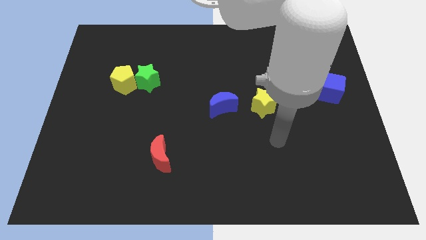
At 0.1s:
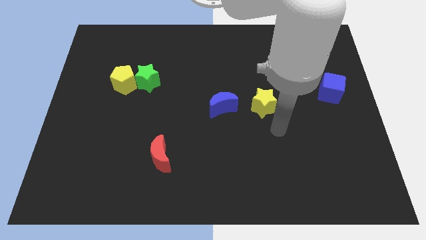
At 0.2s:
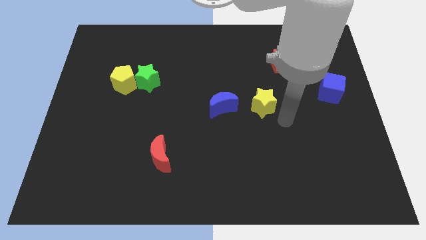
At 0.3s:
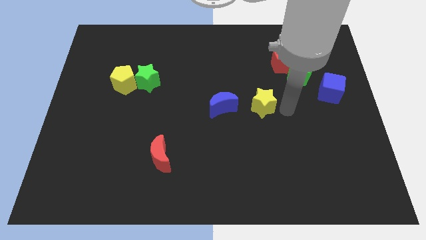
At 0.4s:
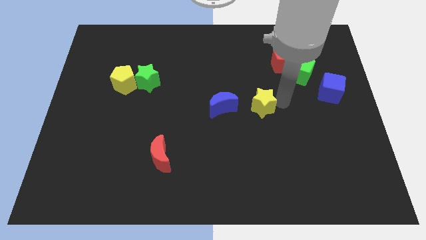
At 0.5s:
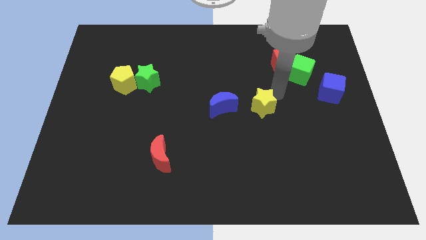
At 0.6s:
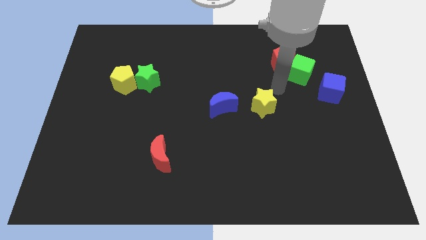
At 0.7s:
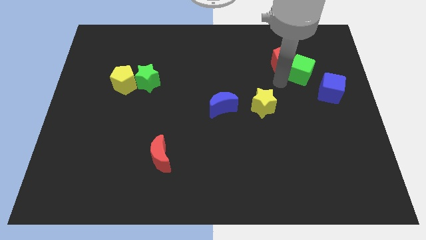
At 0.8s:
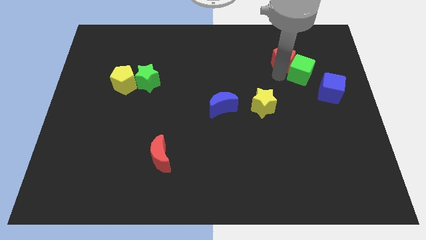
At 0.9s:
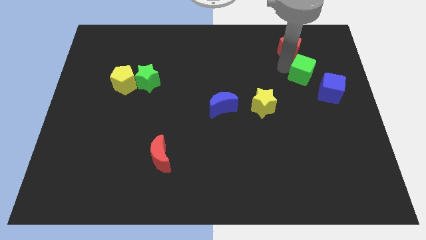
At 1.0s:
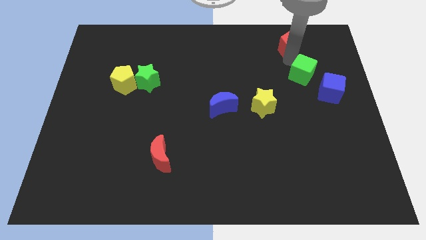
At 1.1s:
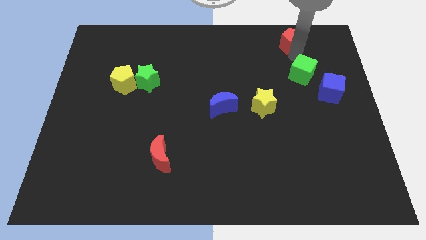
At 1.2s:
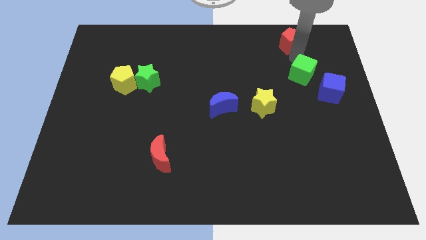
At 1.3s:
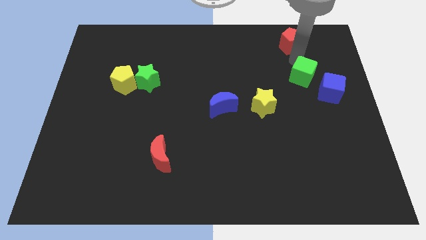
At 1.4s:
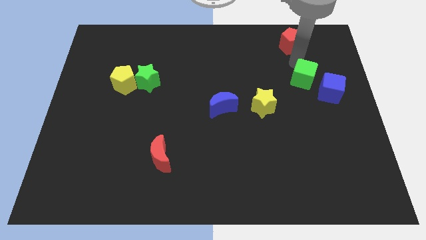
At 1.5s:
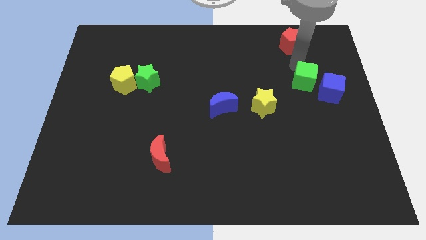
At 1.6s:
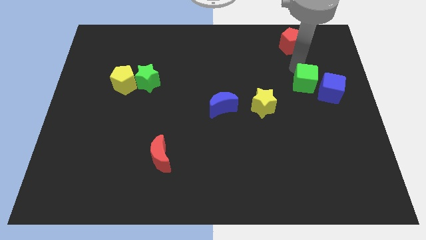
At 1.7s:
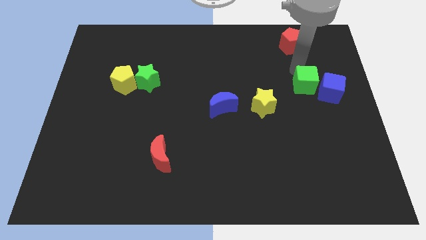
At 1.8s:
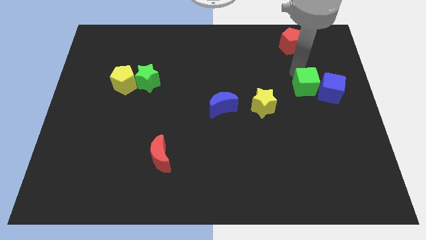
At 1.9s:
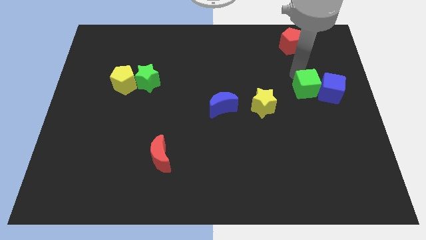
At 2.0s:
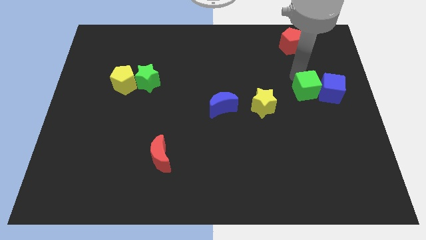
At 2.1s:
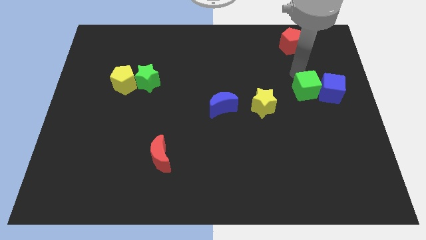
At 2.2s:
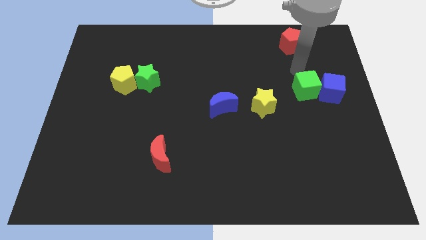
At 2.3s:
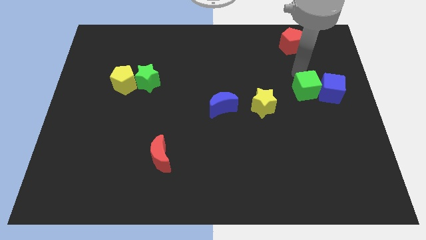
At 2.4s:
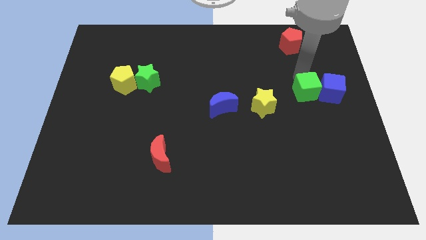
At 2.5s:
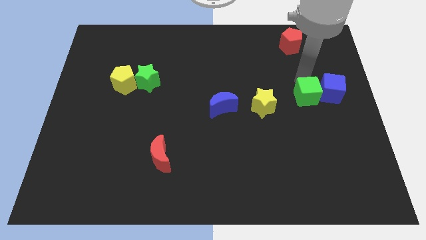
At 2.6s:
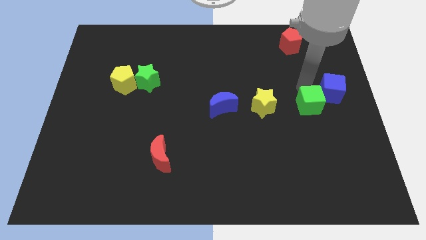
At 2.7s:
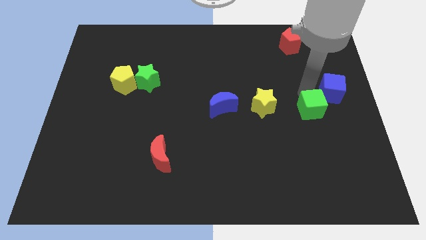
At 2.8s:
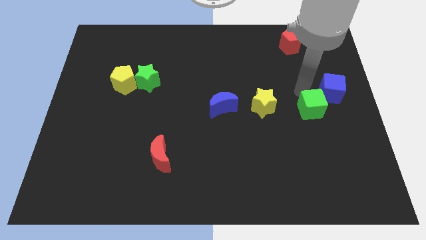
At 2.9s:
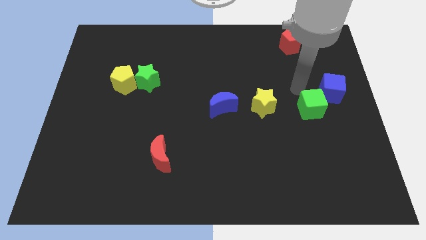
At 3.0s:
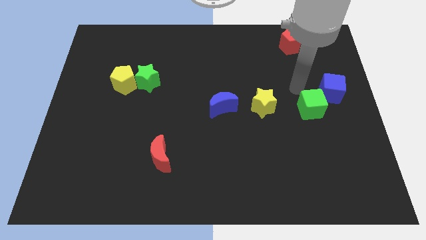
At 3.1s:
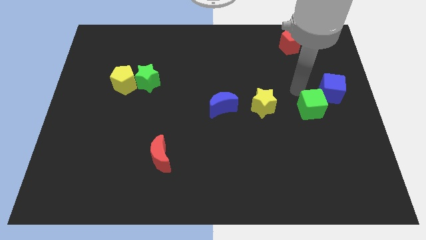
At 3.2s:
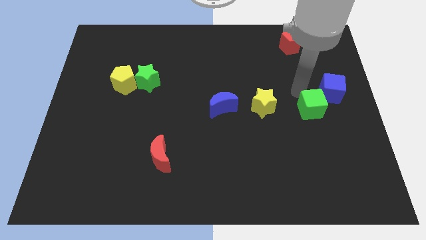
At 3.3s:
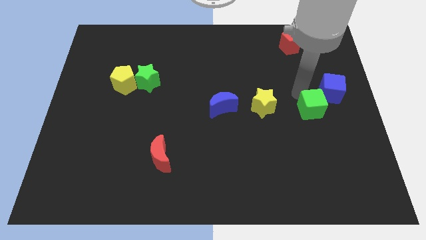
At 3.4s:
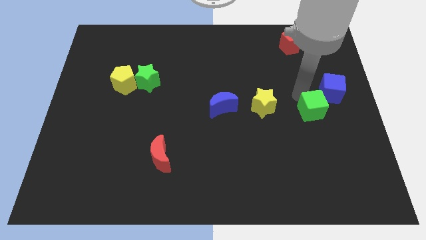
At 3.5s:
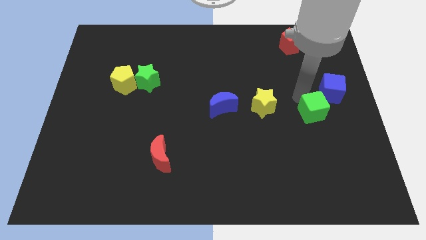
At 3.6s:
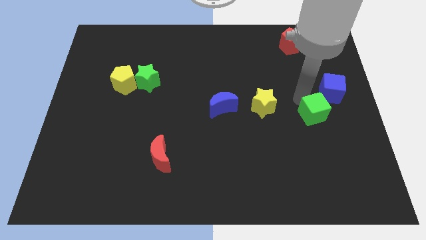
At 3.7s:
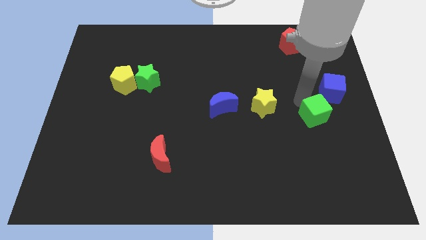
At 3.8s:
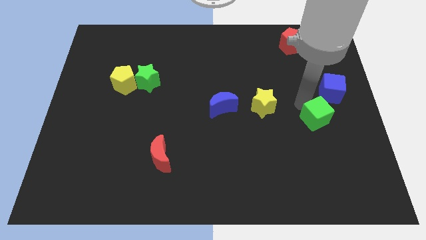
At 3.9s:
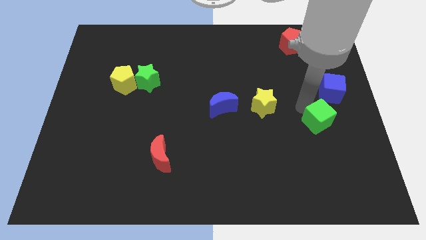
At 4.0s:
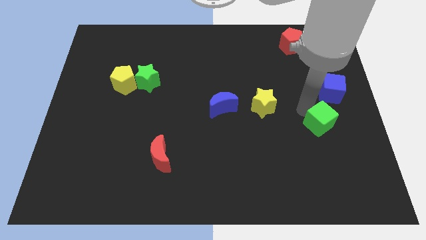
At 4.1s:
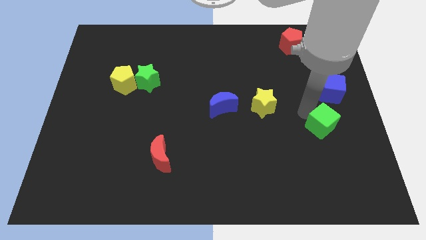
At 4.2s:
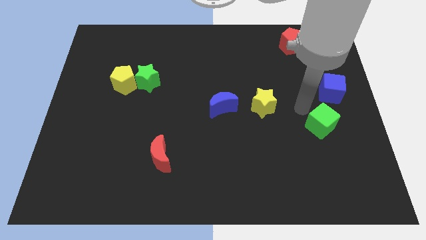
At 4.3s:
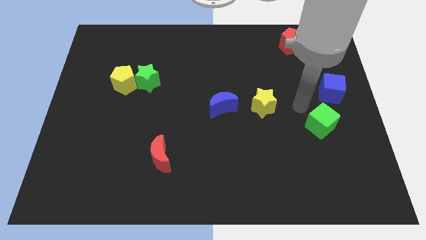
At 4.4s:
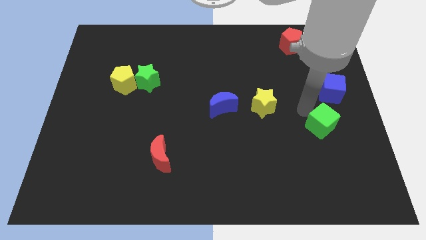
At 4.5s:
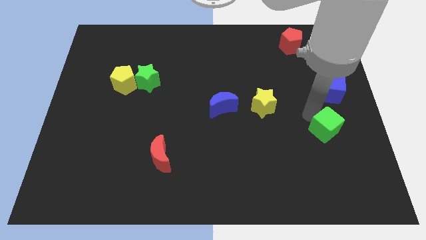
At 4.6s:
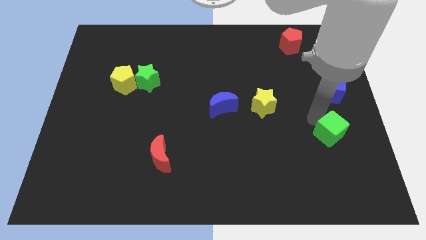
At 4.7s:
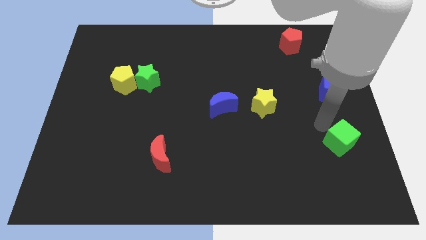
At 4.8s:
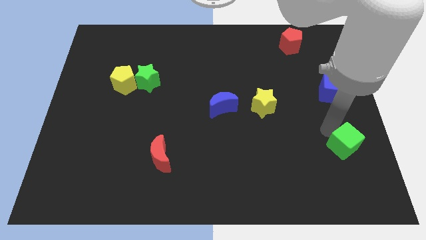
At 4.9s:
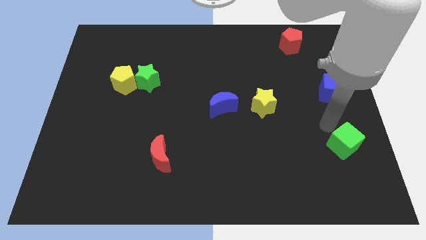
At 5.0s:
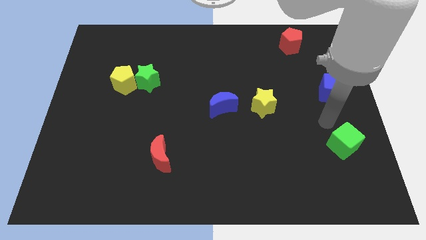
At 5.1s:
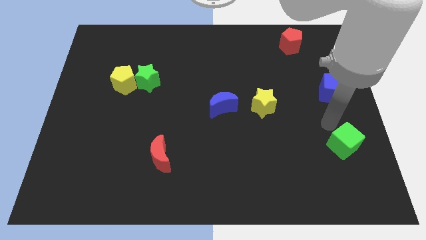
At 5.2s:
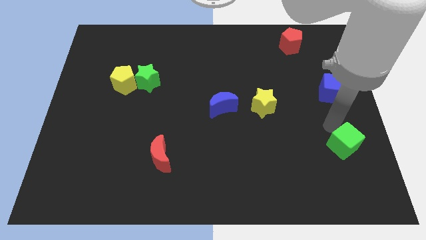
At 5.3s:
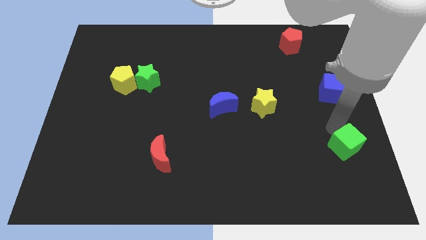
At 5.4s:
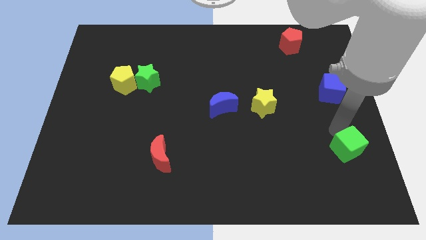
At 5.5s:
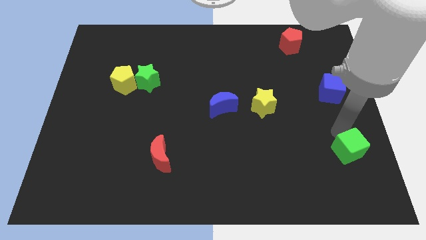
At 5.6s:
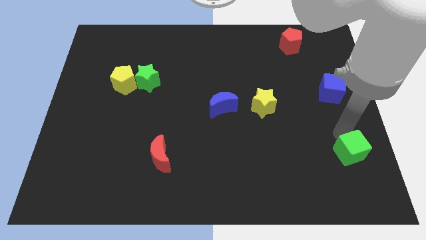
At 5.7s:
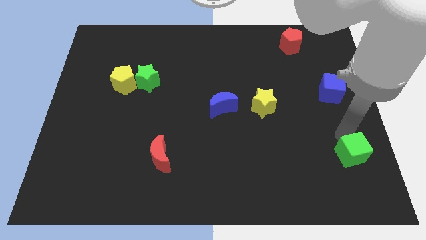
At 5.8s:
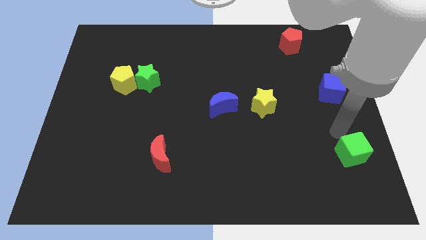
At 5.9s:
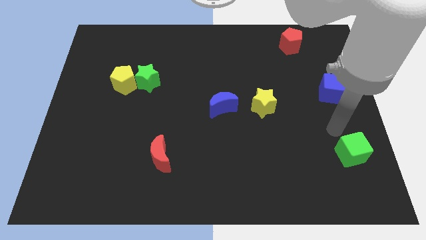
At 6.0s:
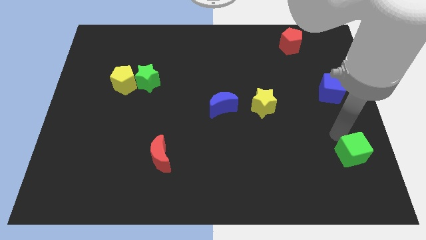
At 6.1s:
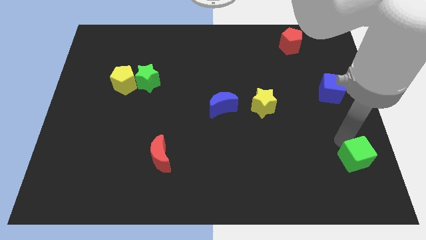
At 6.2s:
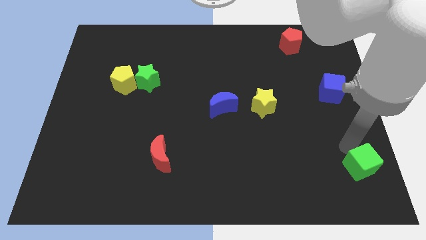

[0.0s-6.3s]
slide the green cube to the bottom right corner
